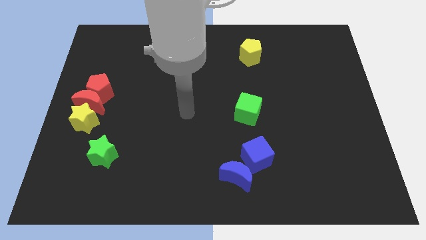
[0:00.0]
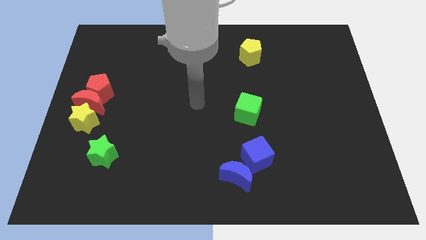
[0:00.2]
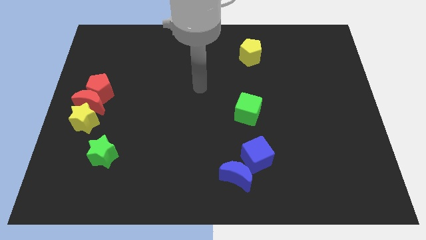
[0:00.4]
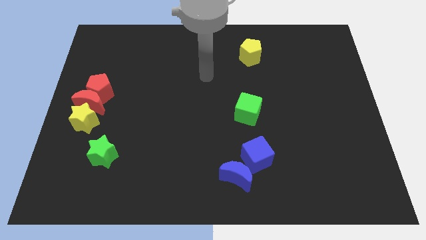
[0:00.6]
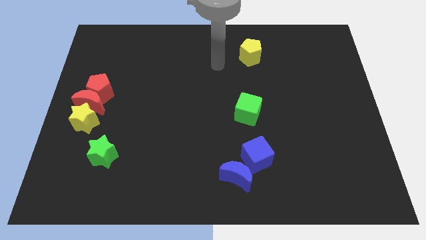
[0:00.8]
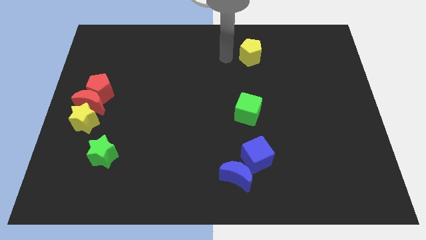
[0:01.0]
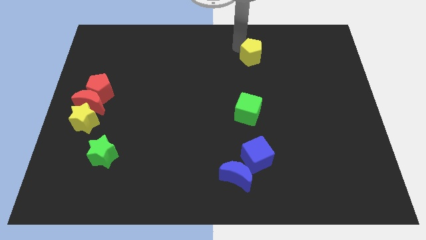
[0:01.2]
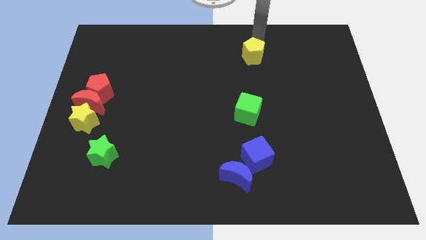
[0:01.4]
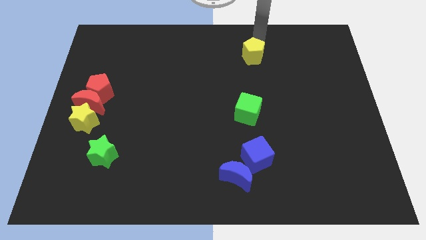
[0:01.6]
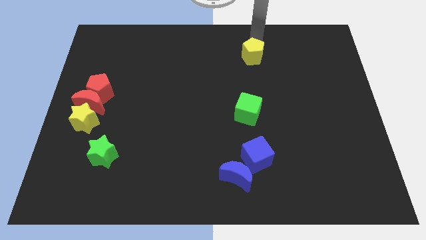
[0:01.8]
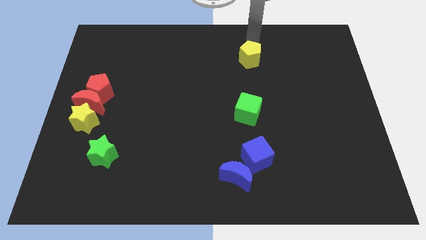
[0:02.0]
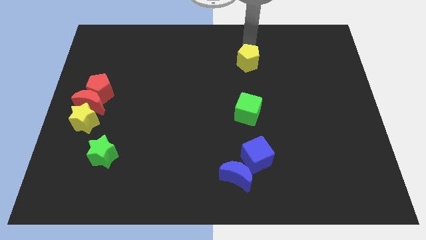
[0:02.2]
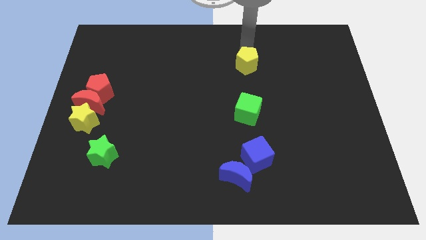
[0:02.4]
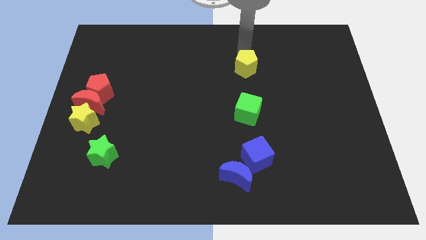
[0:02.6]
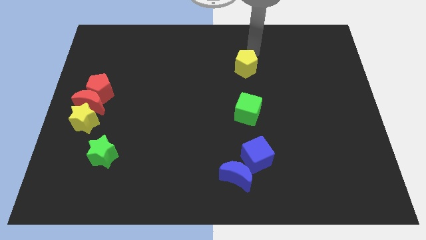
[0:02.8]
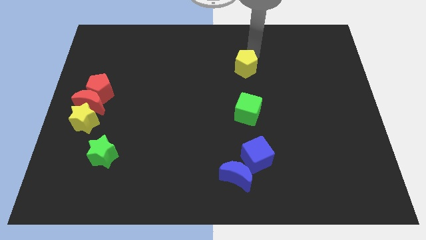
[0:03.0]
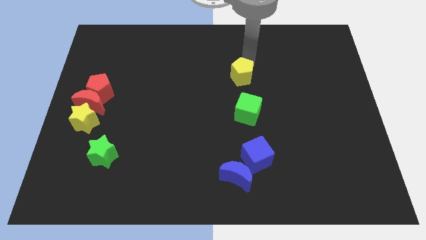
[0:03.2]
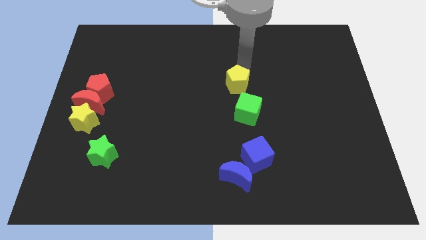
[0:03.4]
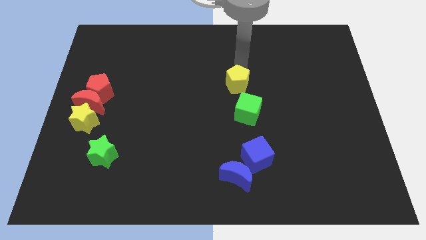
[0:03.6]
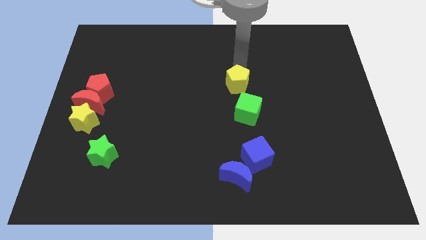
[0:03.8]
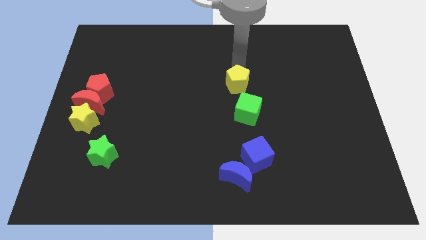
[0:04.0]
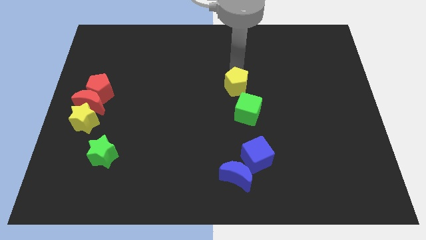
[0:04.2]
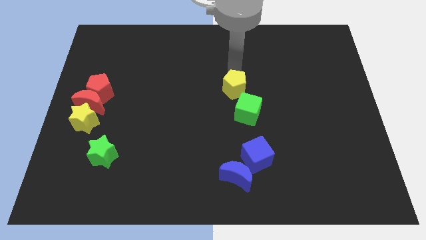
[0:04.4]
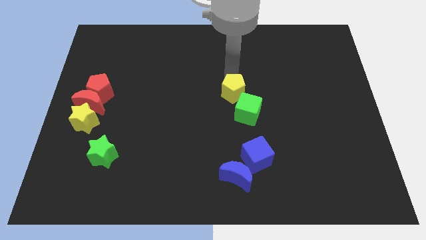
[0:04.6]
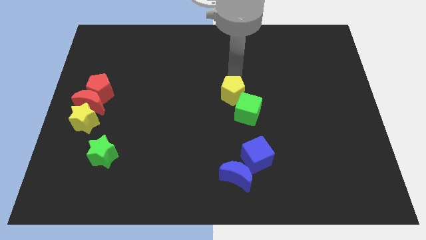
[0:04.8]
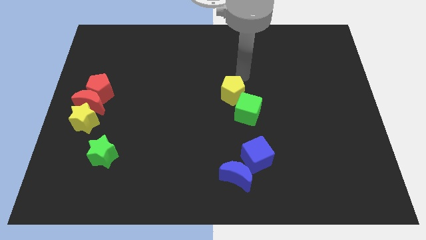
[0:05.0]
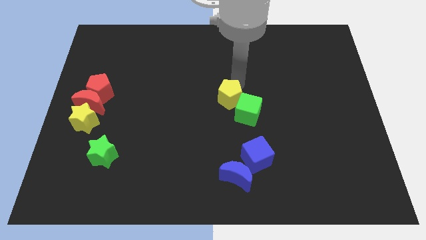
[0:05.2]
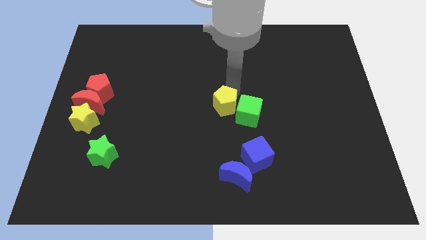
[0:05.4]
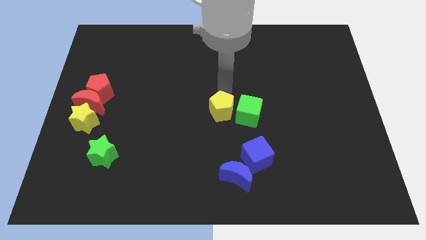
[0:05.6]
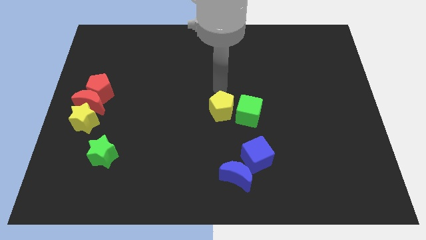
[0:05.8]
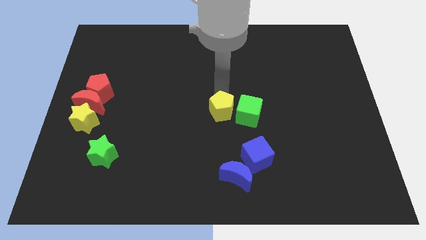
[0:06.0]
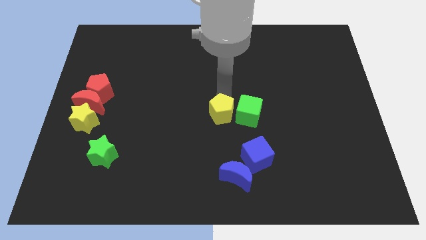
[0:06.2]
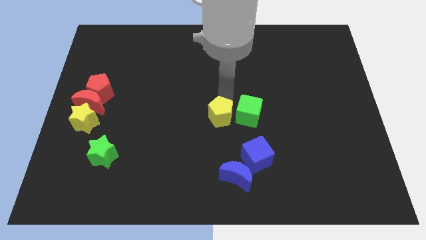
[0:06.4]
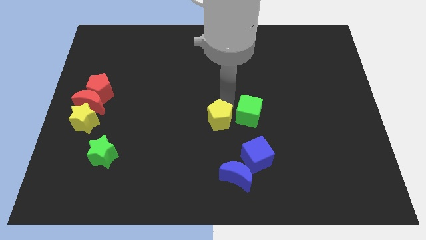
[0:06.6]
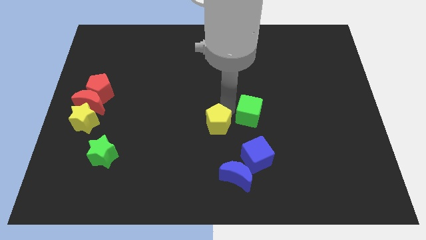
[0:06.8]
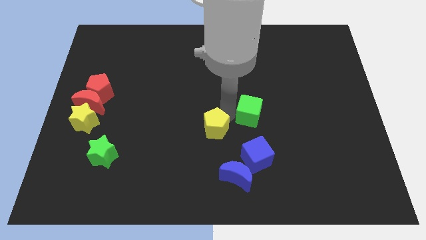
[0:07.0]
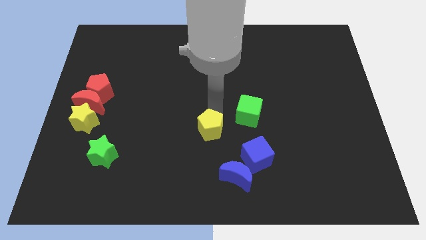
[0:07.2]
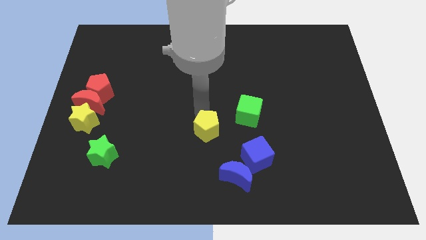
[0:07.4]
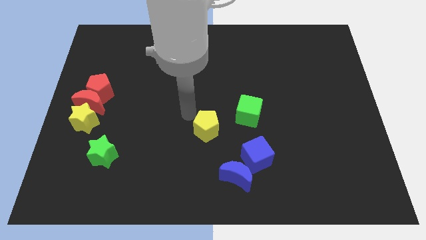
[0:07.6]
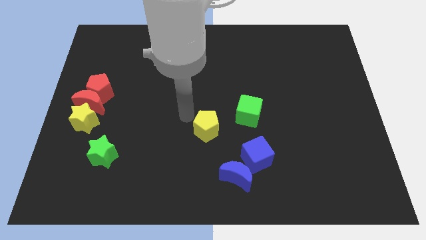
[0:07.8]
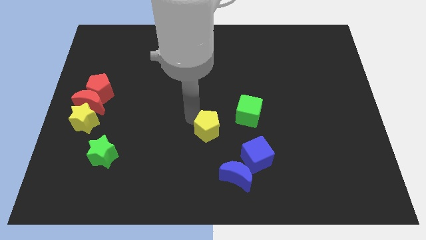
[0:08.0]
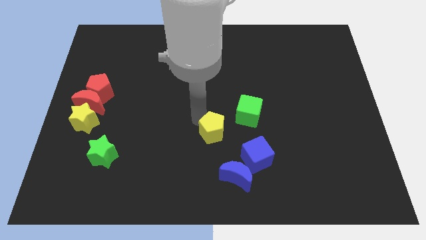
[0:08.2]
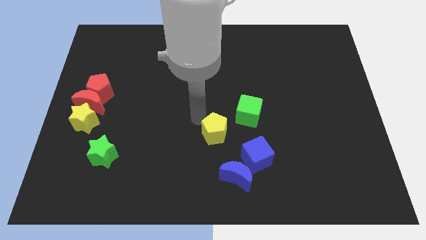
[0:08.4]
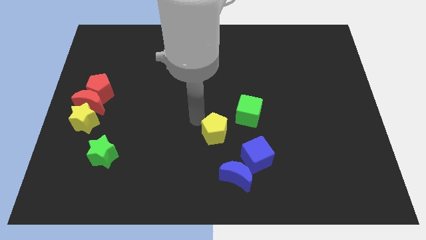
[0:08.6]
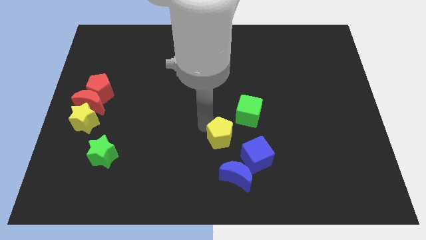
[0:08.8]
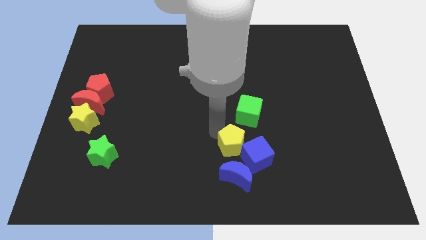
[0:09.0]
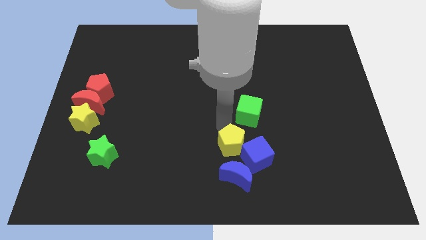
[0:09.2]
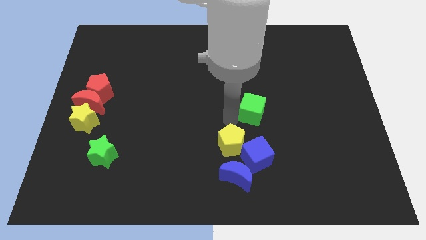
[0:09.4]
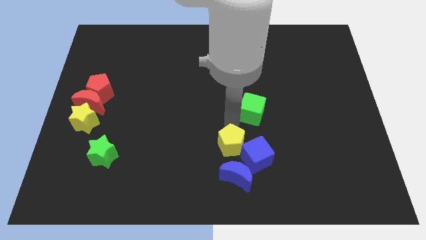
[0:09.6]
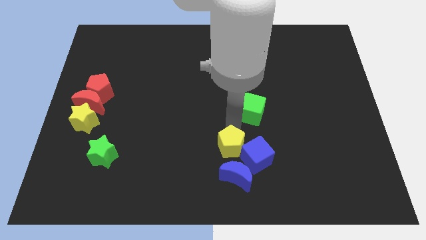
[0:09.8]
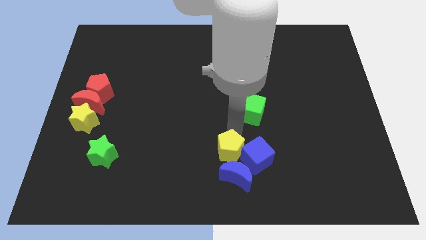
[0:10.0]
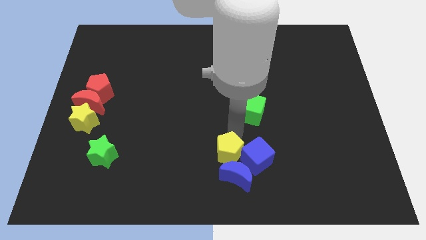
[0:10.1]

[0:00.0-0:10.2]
put the yellow pentagon towards the blue moon

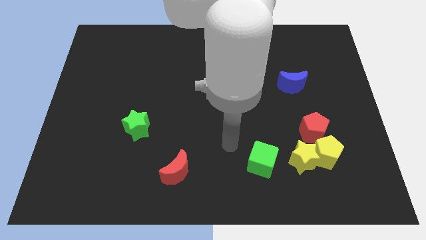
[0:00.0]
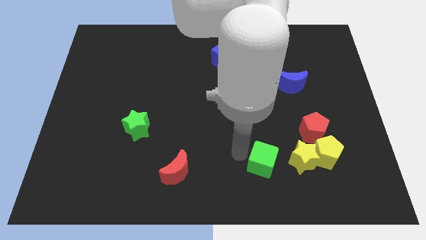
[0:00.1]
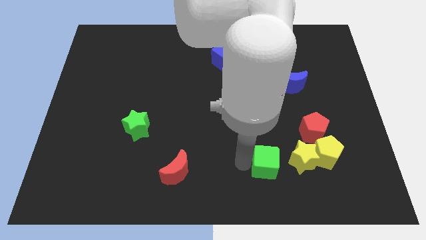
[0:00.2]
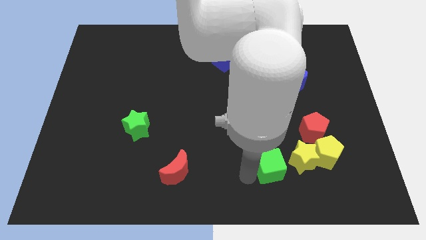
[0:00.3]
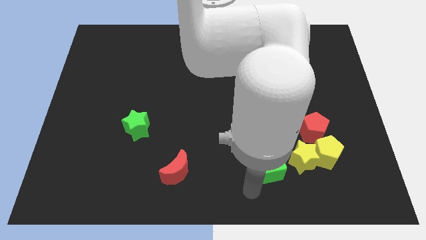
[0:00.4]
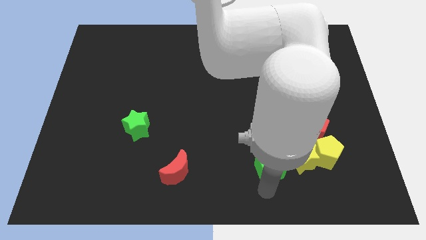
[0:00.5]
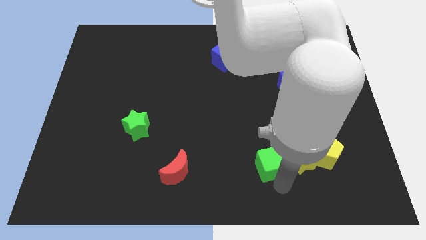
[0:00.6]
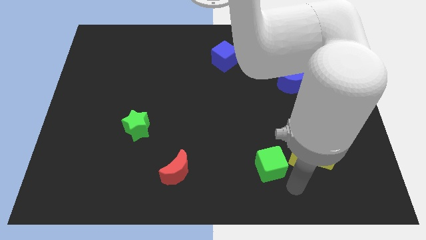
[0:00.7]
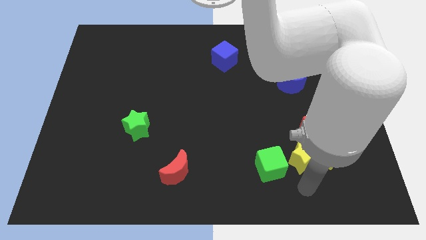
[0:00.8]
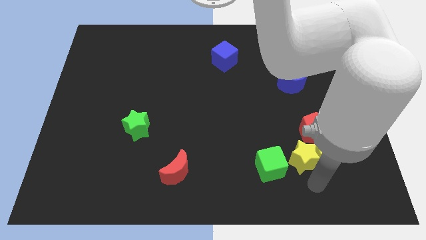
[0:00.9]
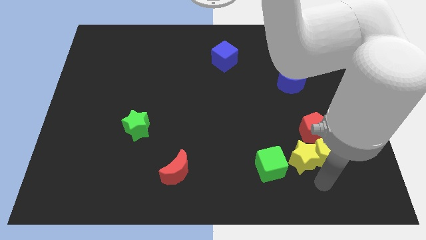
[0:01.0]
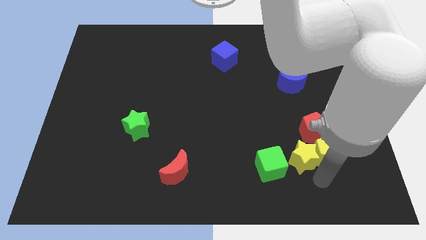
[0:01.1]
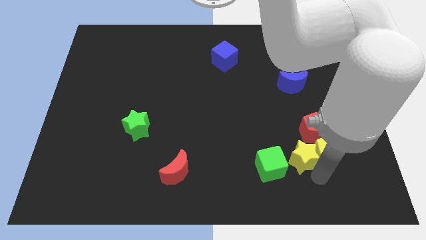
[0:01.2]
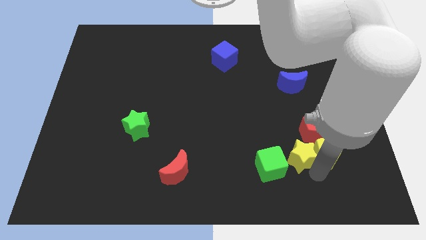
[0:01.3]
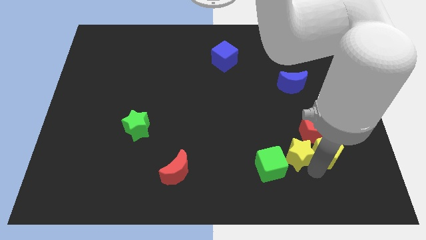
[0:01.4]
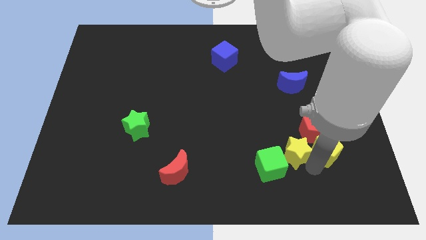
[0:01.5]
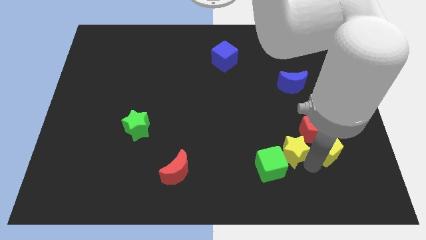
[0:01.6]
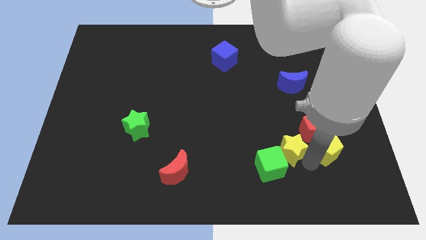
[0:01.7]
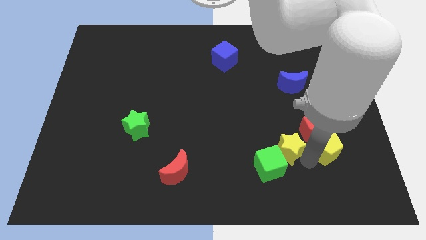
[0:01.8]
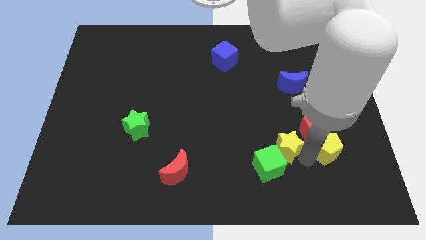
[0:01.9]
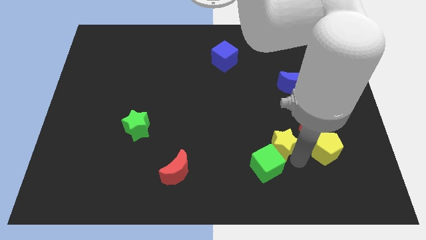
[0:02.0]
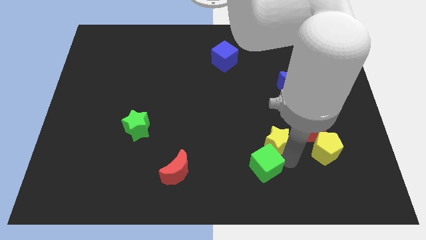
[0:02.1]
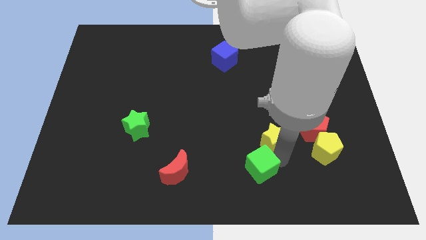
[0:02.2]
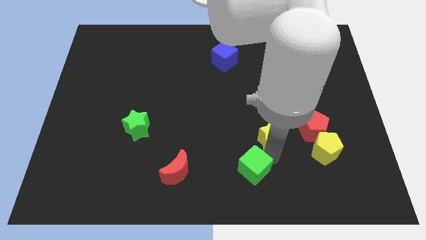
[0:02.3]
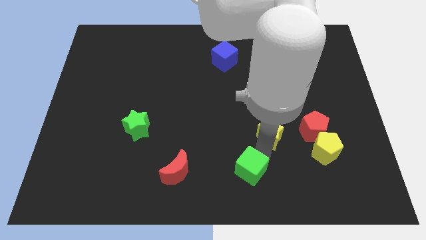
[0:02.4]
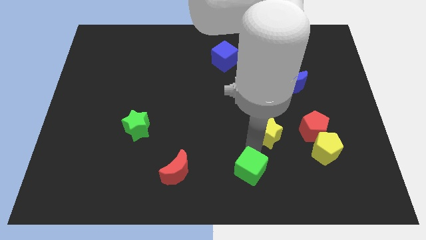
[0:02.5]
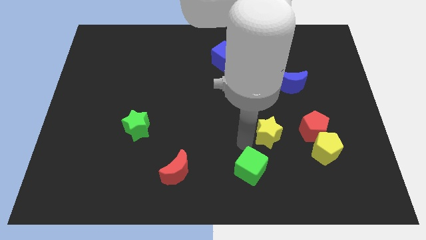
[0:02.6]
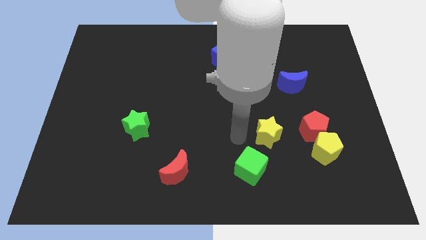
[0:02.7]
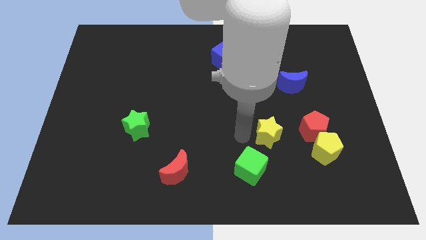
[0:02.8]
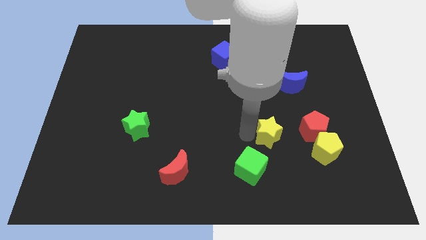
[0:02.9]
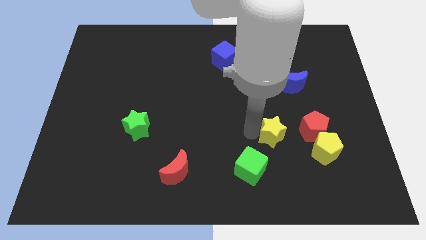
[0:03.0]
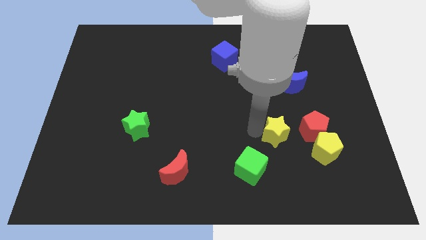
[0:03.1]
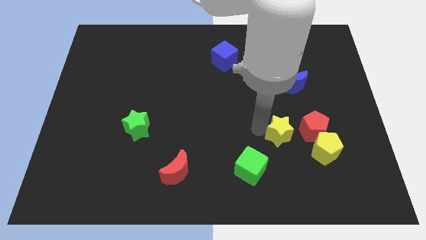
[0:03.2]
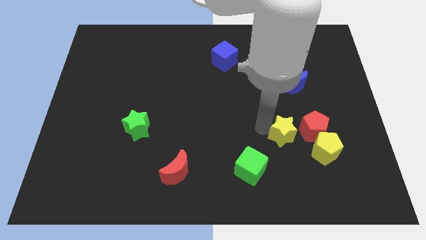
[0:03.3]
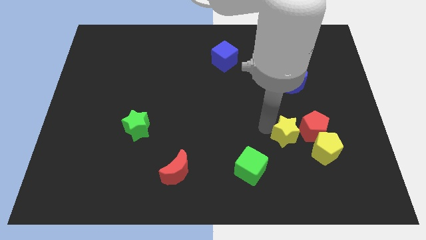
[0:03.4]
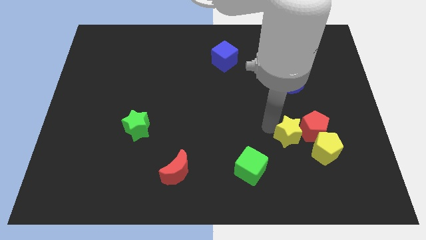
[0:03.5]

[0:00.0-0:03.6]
push the yellow star towards the red pentagon
